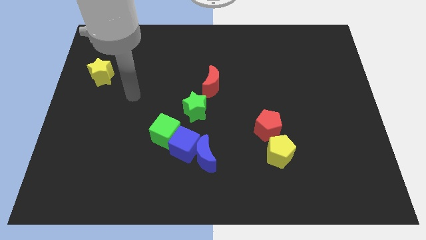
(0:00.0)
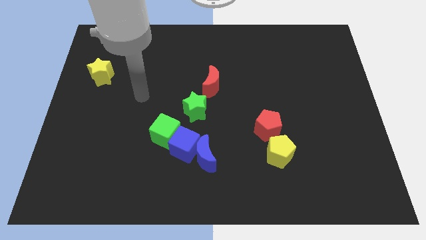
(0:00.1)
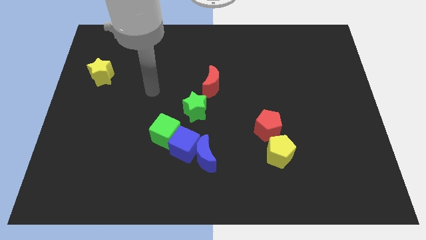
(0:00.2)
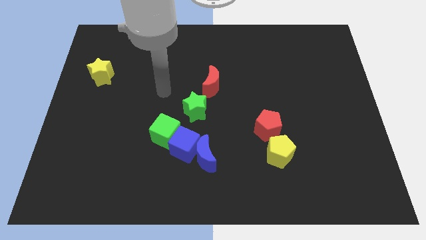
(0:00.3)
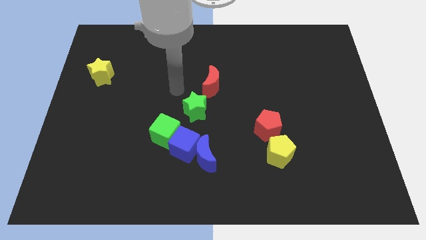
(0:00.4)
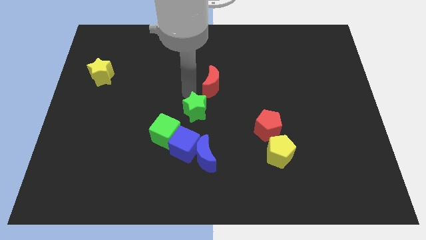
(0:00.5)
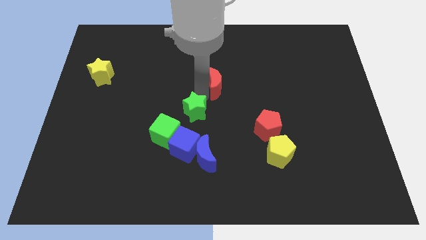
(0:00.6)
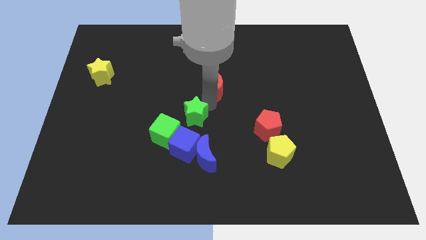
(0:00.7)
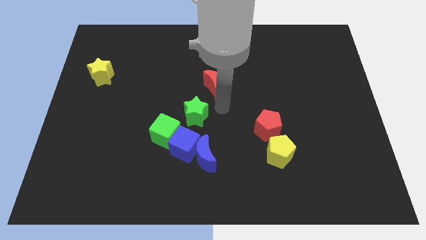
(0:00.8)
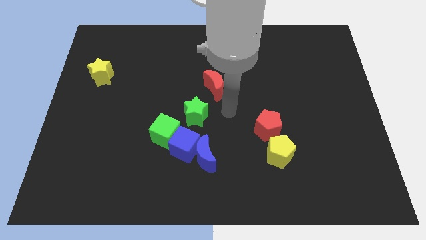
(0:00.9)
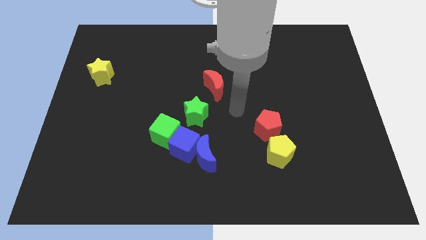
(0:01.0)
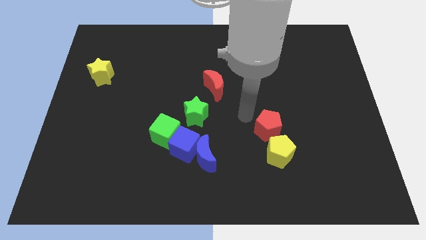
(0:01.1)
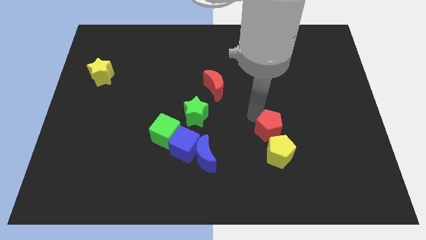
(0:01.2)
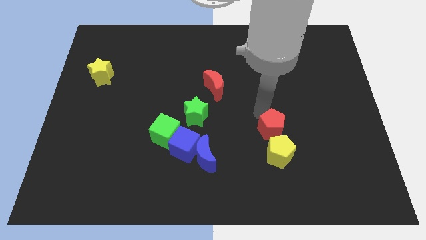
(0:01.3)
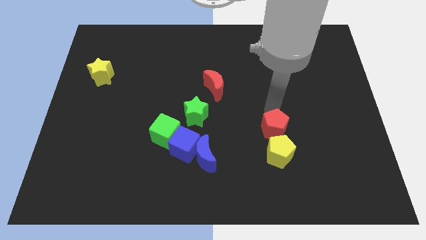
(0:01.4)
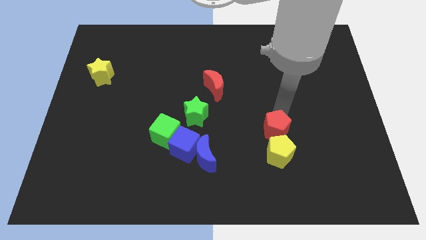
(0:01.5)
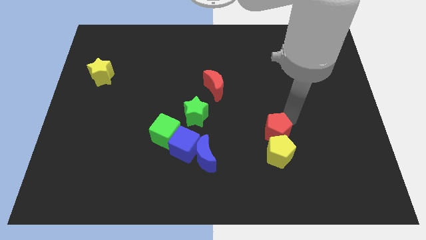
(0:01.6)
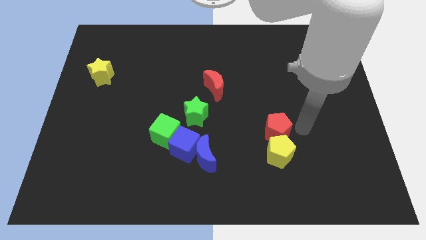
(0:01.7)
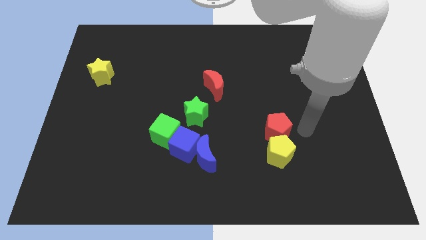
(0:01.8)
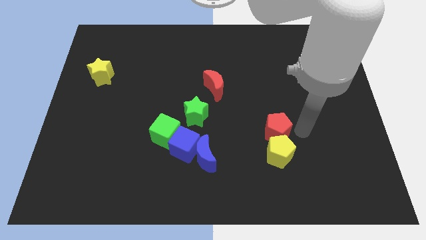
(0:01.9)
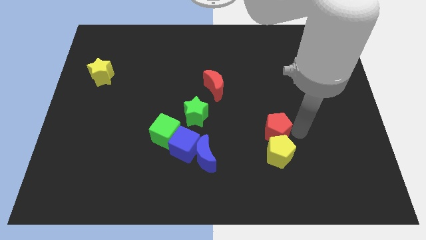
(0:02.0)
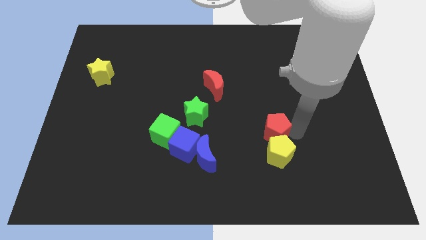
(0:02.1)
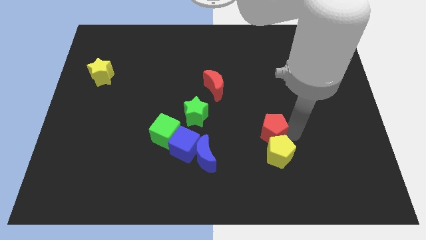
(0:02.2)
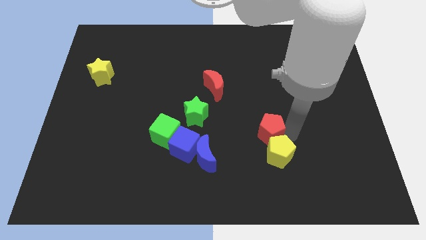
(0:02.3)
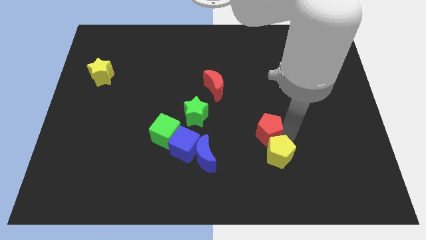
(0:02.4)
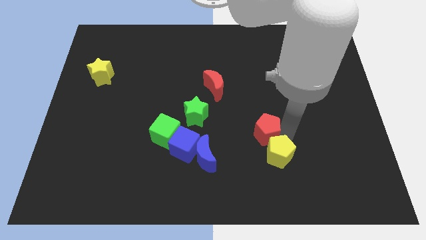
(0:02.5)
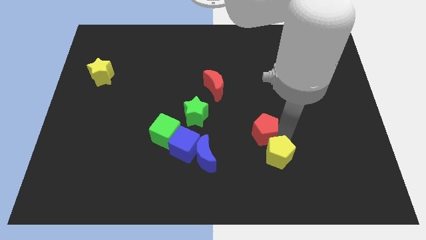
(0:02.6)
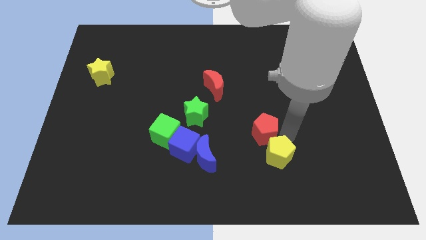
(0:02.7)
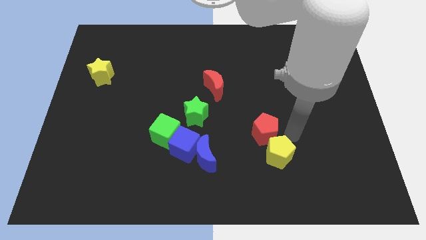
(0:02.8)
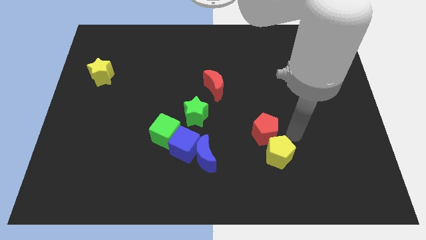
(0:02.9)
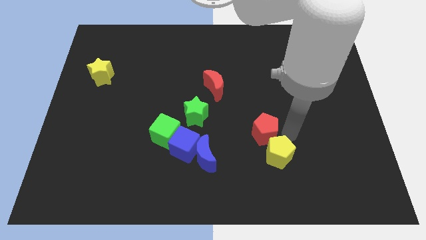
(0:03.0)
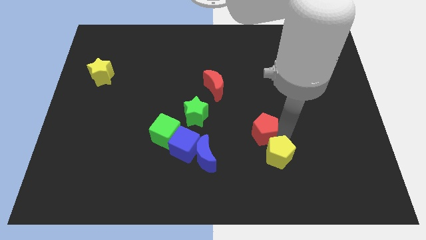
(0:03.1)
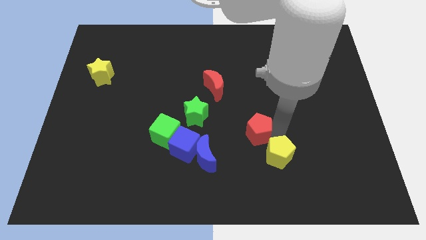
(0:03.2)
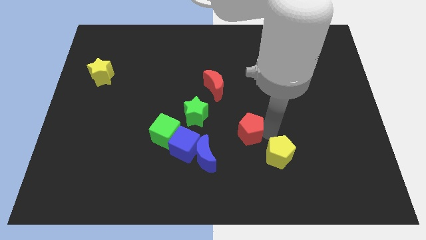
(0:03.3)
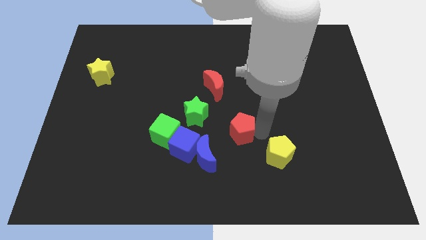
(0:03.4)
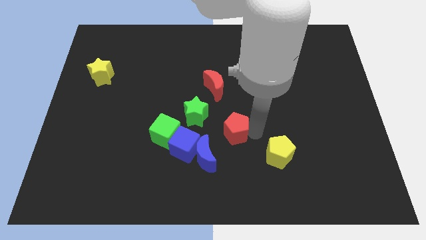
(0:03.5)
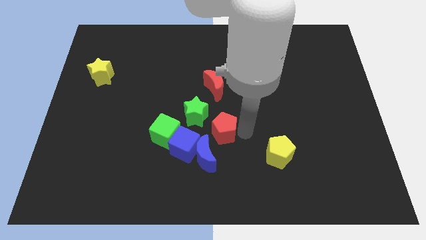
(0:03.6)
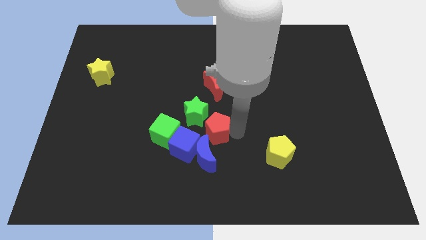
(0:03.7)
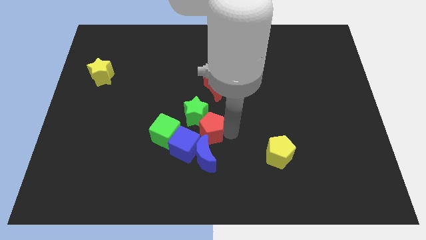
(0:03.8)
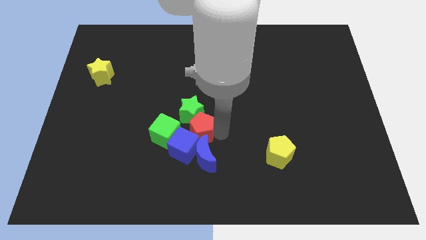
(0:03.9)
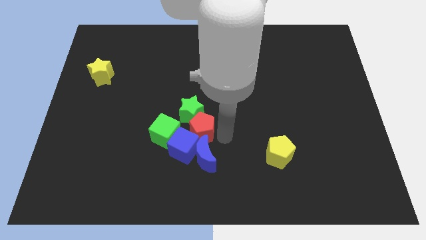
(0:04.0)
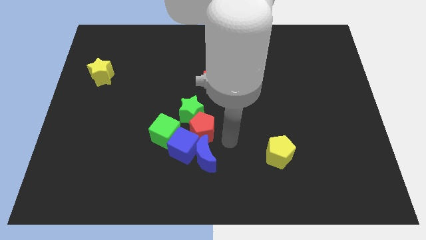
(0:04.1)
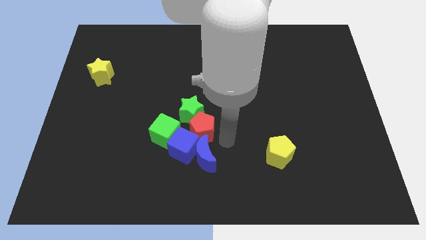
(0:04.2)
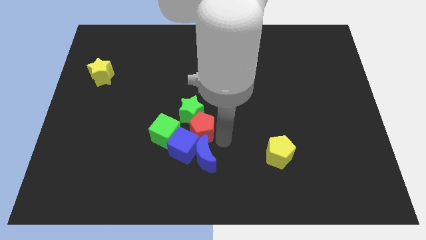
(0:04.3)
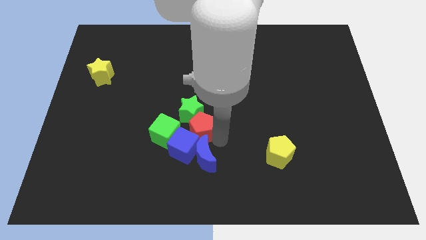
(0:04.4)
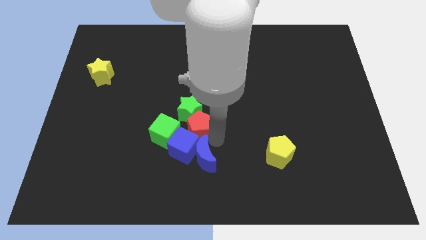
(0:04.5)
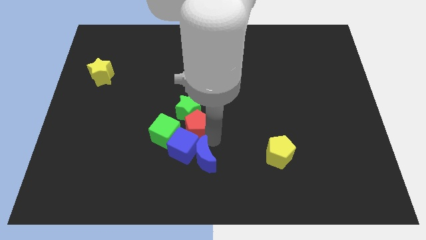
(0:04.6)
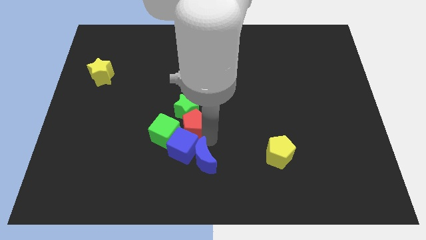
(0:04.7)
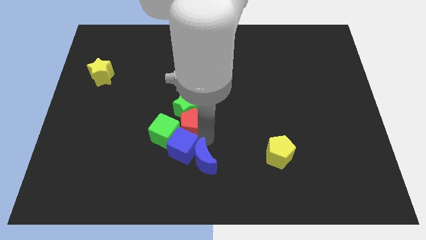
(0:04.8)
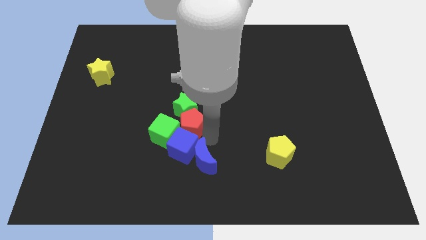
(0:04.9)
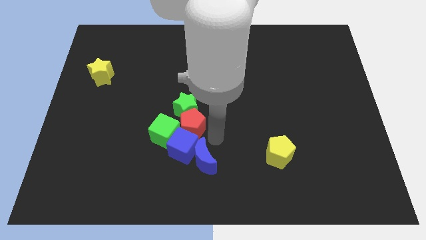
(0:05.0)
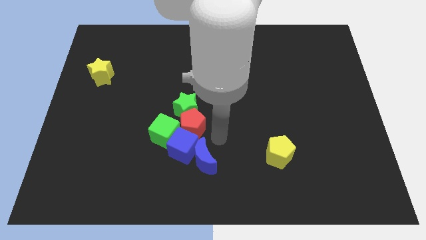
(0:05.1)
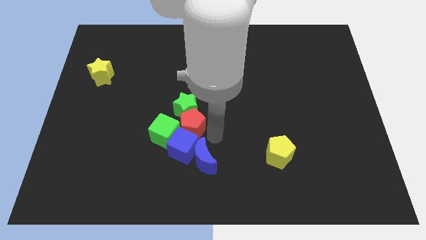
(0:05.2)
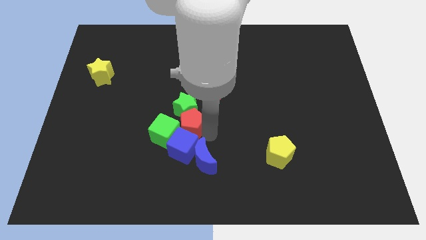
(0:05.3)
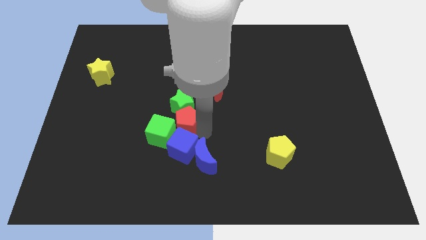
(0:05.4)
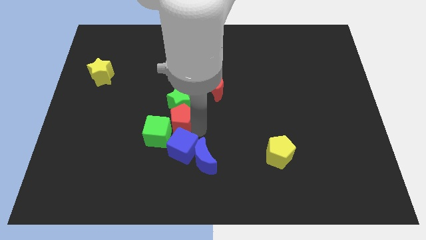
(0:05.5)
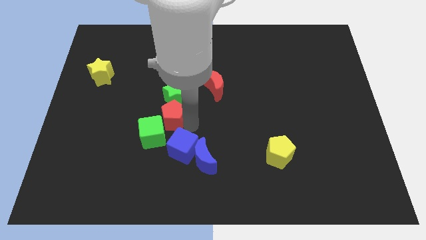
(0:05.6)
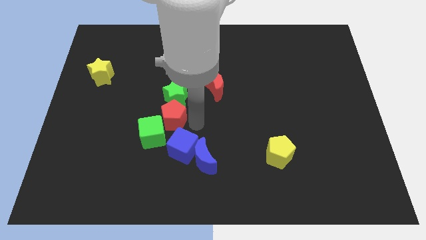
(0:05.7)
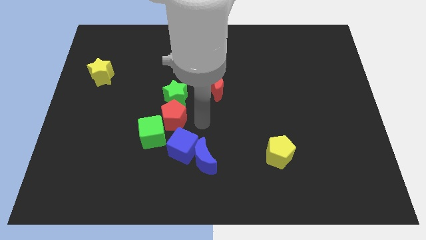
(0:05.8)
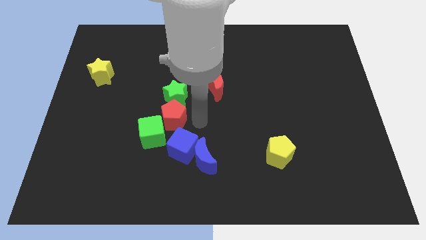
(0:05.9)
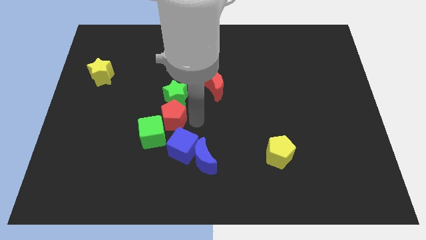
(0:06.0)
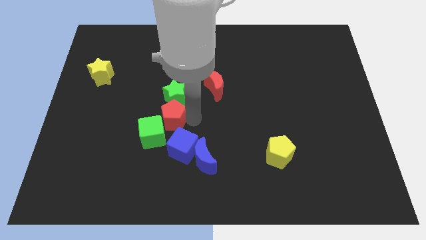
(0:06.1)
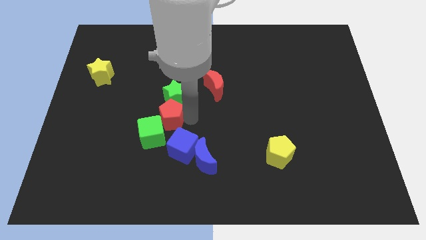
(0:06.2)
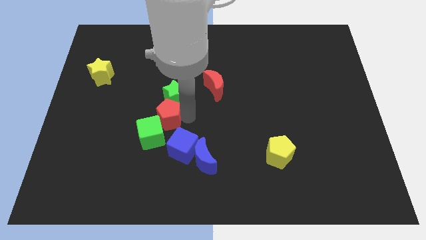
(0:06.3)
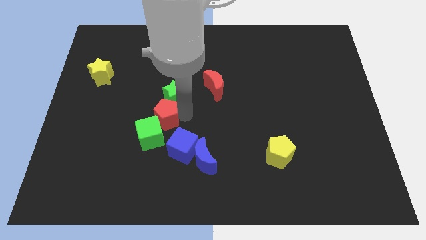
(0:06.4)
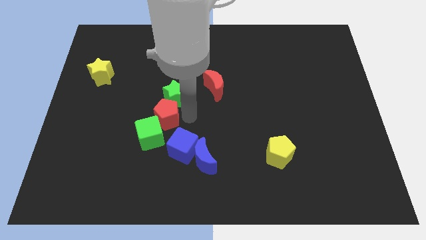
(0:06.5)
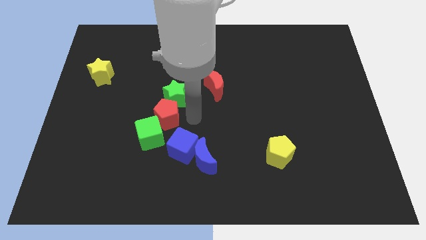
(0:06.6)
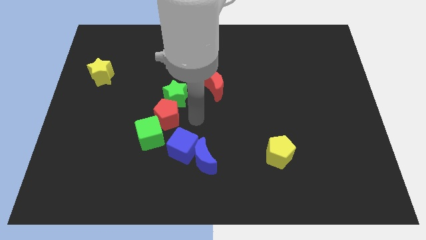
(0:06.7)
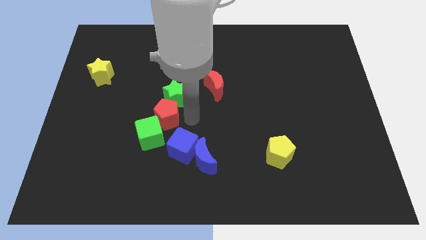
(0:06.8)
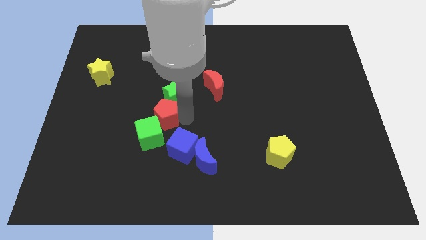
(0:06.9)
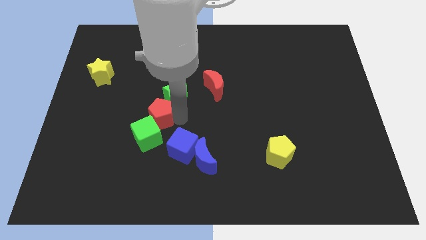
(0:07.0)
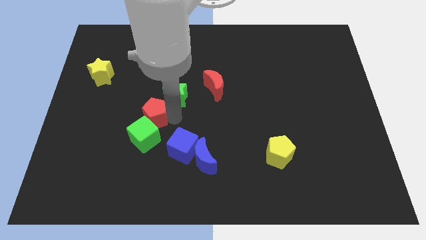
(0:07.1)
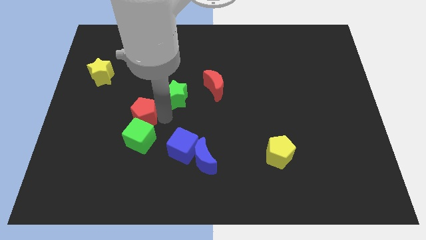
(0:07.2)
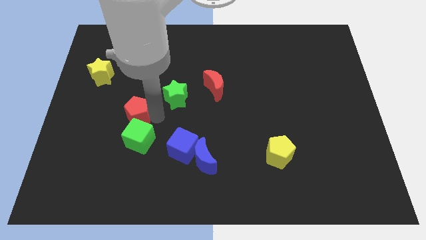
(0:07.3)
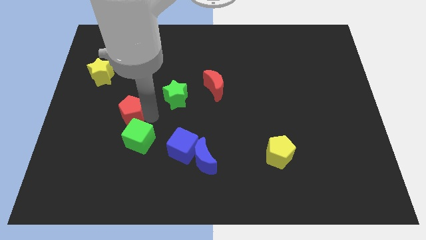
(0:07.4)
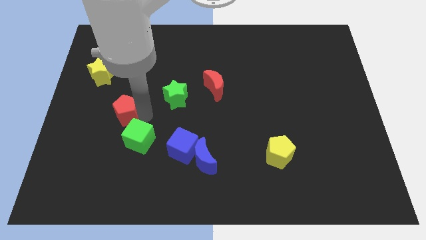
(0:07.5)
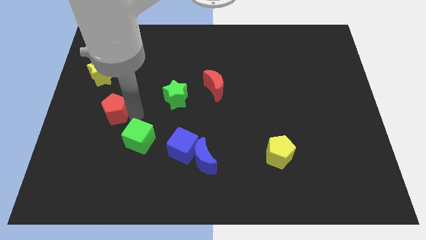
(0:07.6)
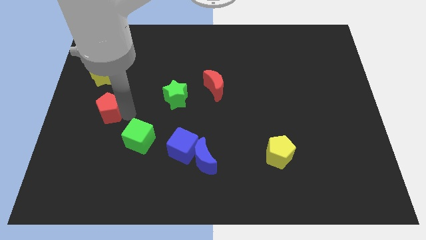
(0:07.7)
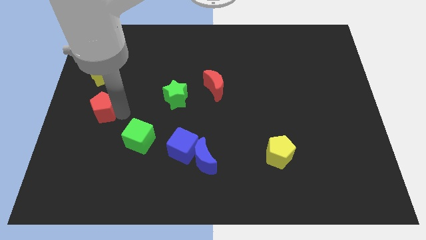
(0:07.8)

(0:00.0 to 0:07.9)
put the red pentagon to the center left
